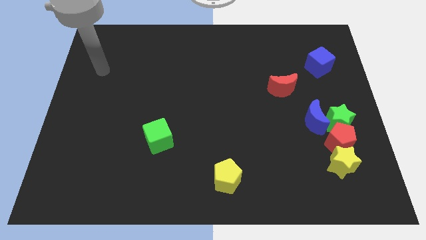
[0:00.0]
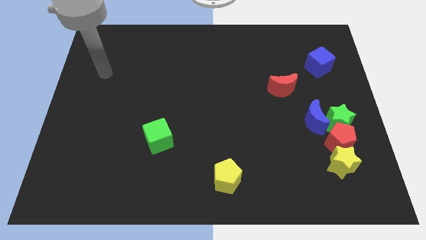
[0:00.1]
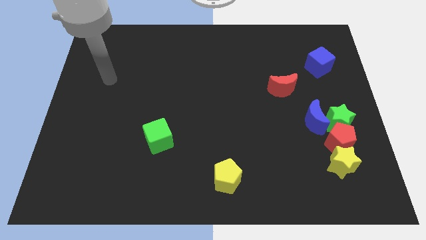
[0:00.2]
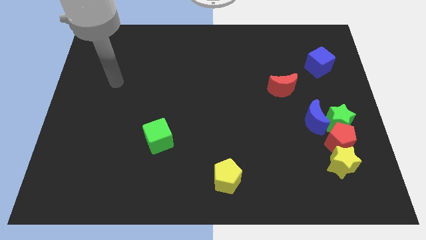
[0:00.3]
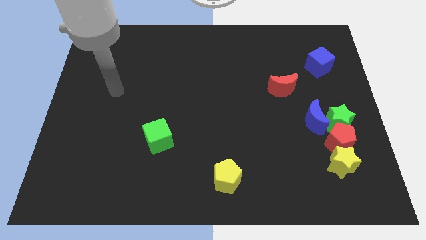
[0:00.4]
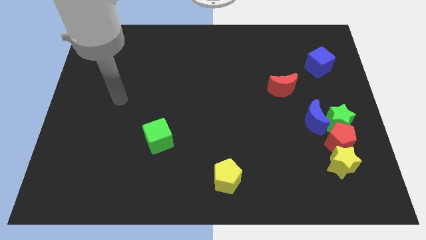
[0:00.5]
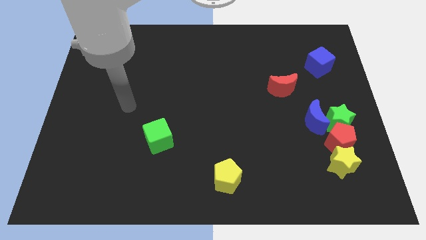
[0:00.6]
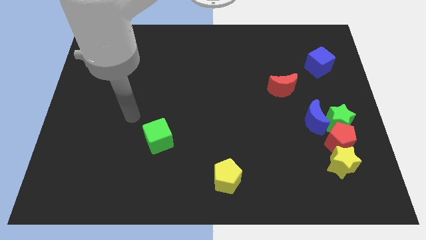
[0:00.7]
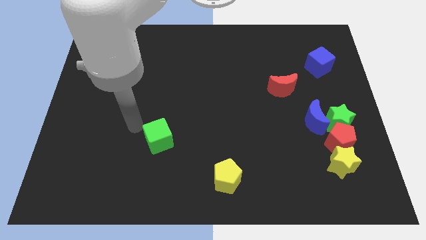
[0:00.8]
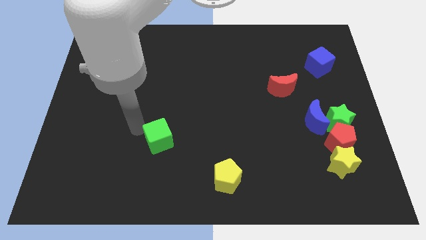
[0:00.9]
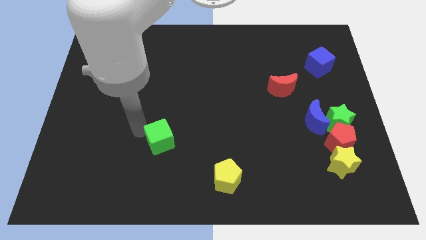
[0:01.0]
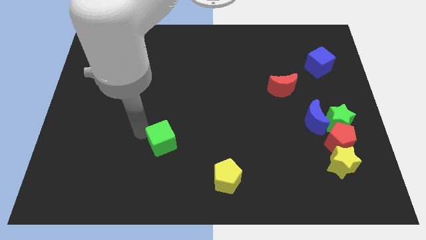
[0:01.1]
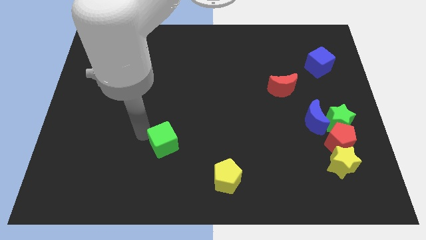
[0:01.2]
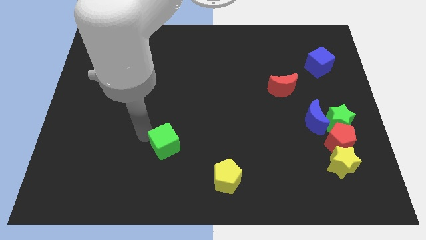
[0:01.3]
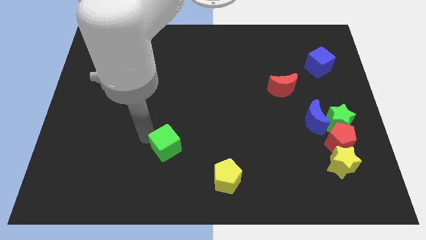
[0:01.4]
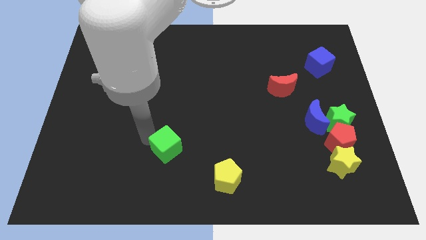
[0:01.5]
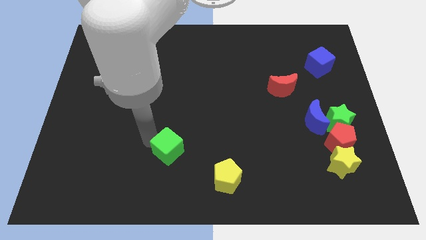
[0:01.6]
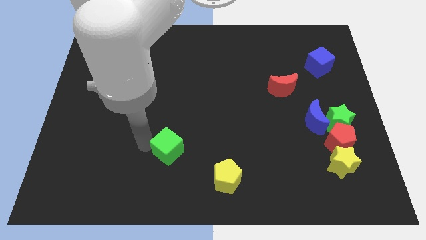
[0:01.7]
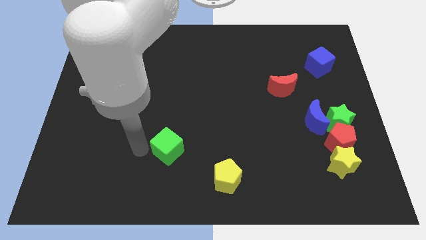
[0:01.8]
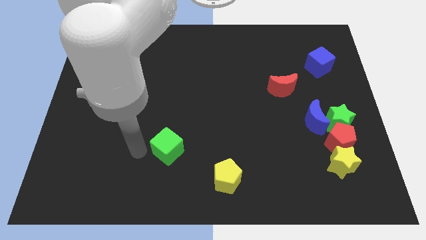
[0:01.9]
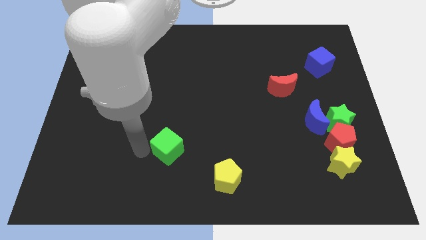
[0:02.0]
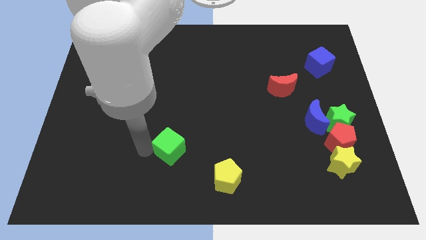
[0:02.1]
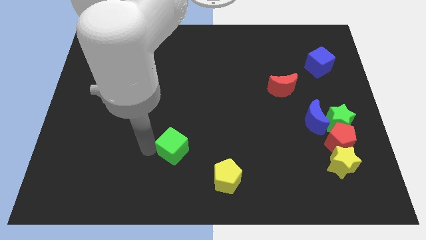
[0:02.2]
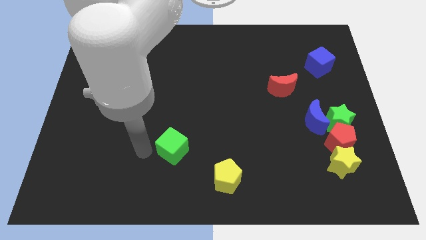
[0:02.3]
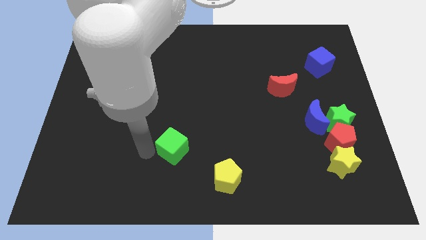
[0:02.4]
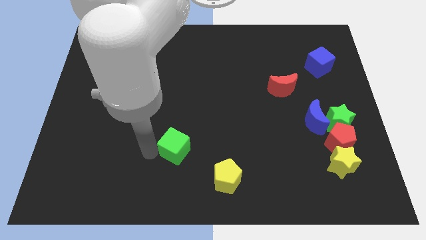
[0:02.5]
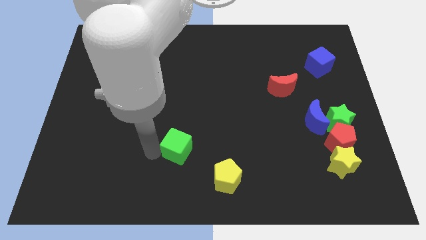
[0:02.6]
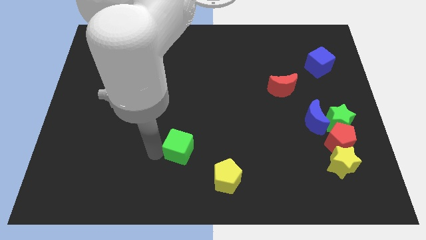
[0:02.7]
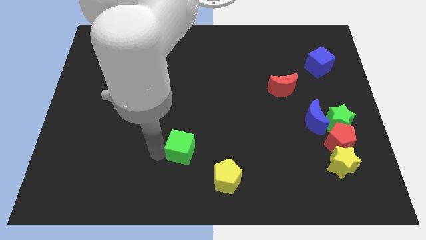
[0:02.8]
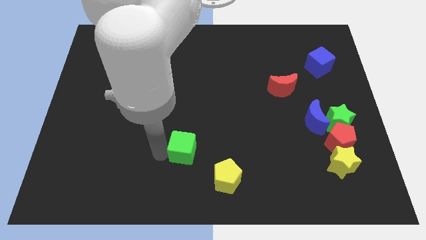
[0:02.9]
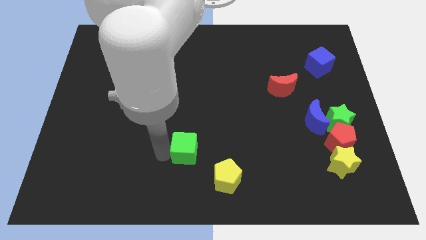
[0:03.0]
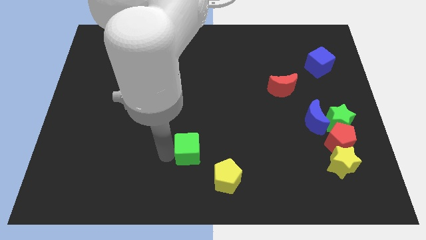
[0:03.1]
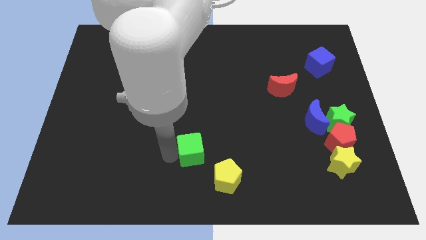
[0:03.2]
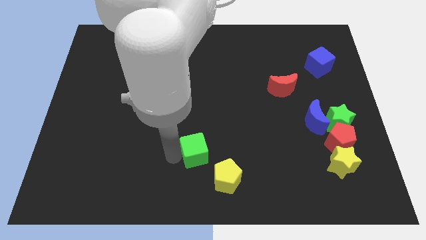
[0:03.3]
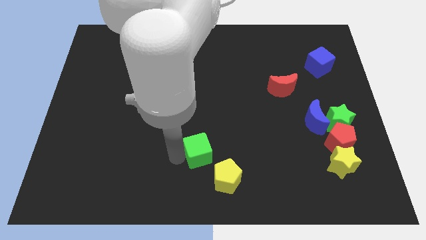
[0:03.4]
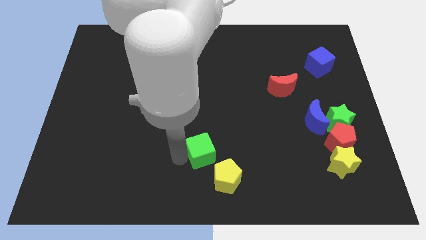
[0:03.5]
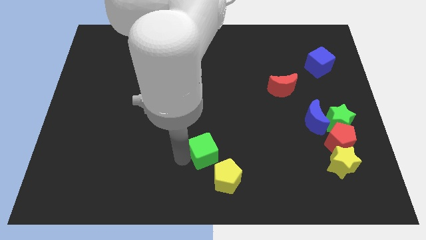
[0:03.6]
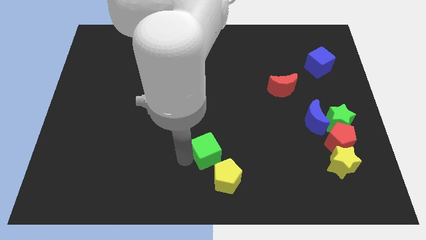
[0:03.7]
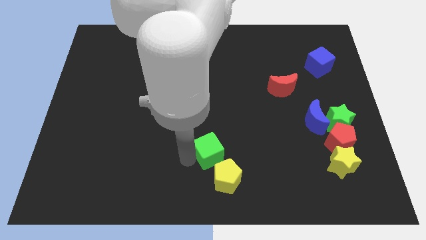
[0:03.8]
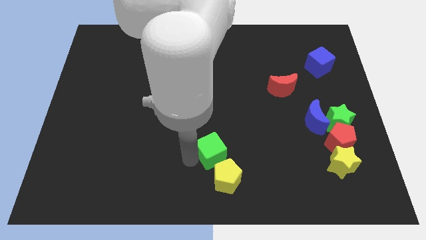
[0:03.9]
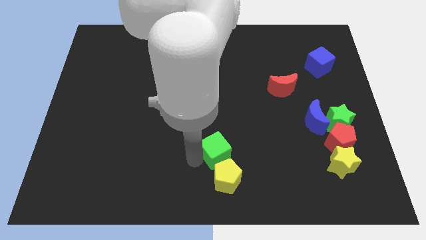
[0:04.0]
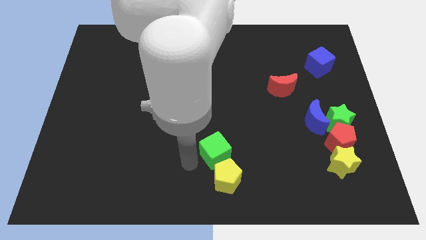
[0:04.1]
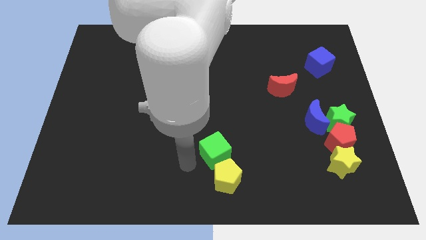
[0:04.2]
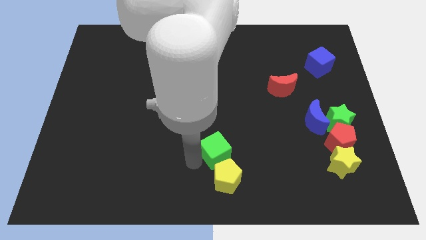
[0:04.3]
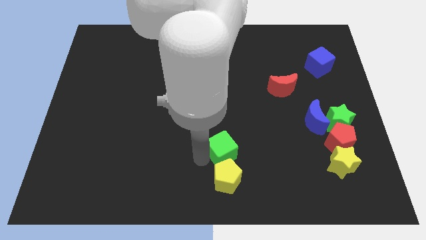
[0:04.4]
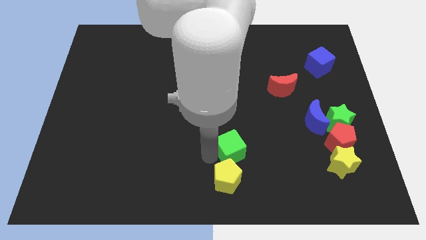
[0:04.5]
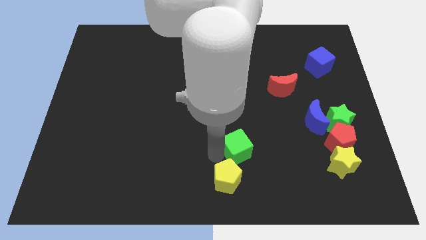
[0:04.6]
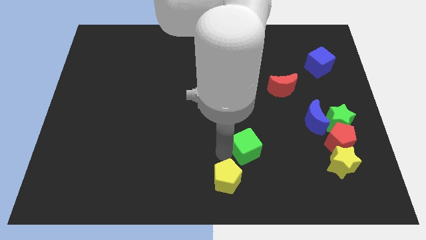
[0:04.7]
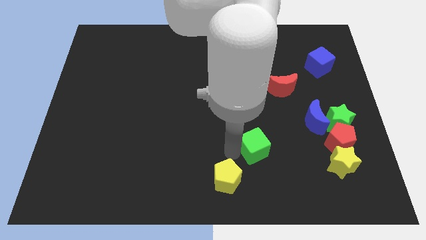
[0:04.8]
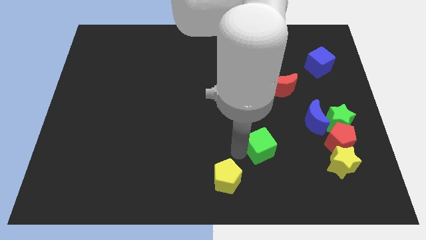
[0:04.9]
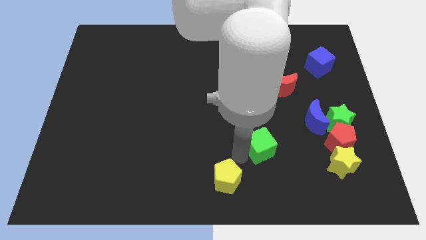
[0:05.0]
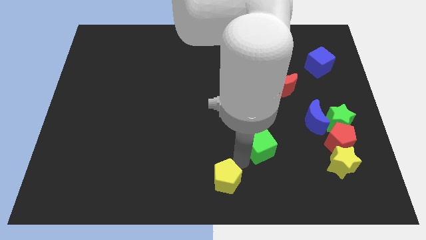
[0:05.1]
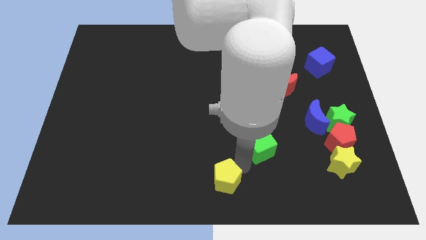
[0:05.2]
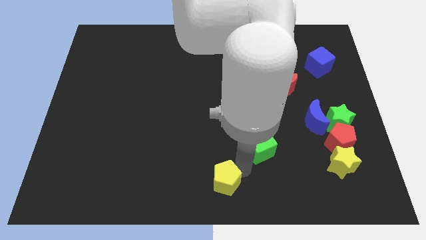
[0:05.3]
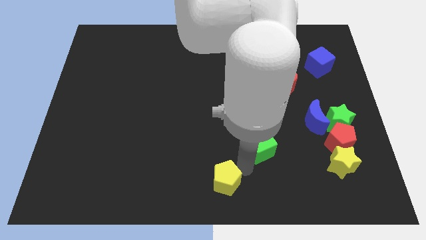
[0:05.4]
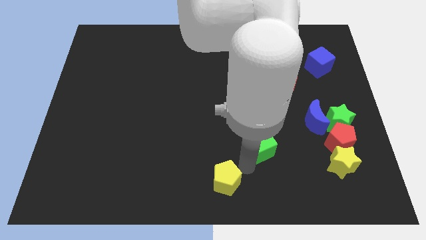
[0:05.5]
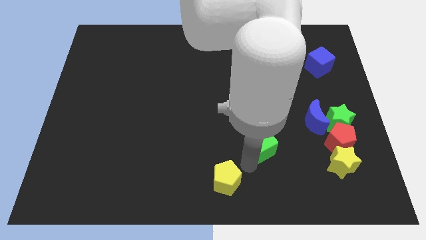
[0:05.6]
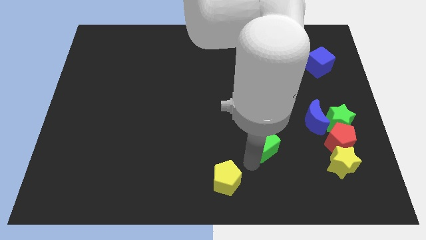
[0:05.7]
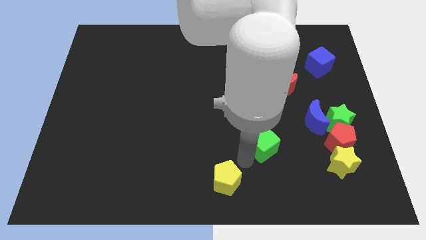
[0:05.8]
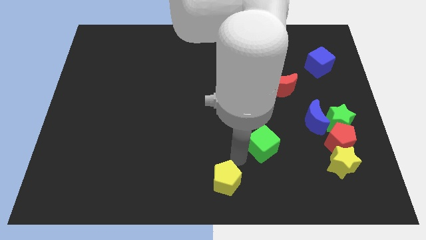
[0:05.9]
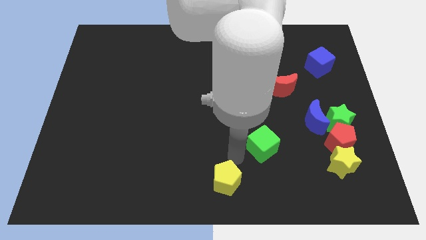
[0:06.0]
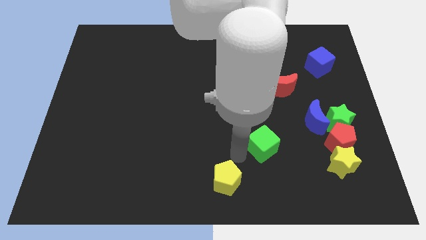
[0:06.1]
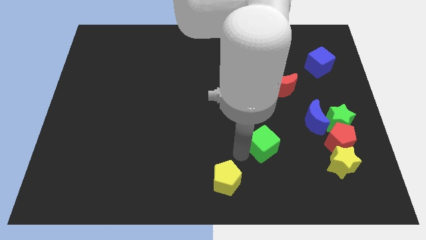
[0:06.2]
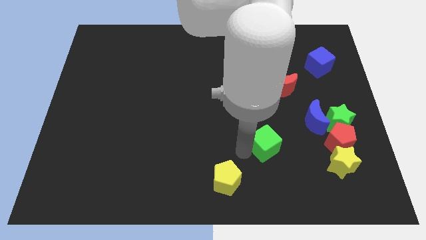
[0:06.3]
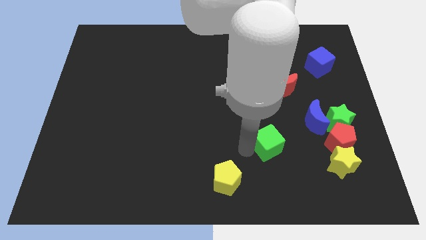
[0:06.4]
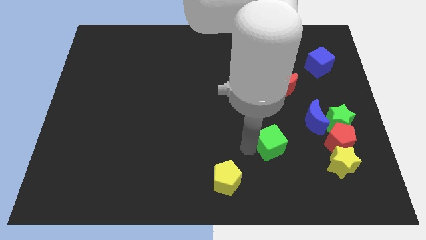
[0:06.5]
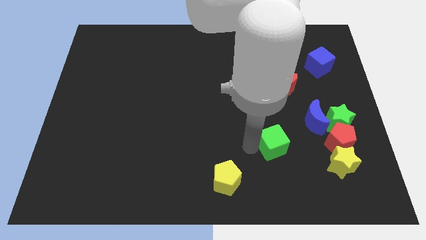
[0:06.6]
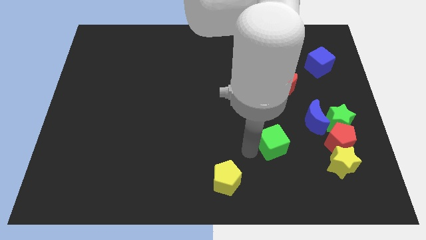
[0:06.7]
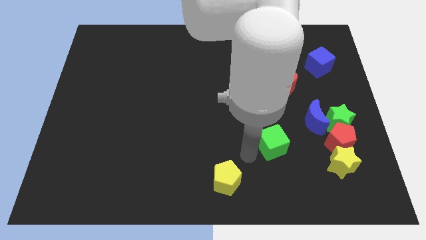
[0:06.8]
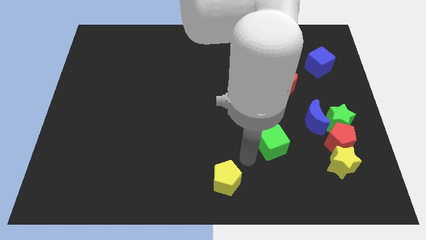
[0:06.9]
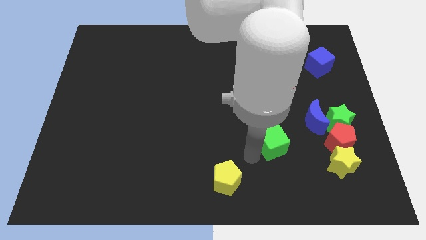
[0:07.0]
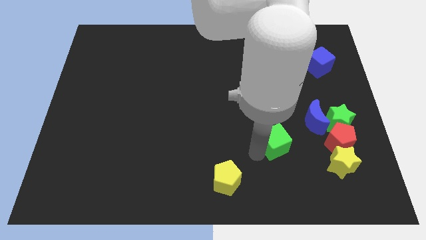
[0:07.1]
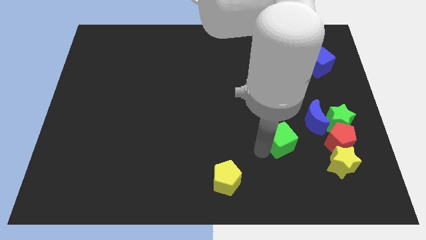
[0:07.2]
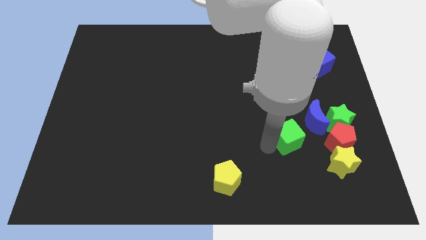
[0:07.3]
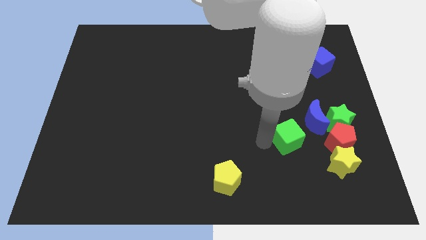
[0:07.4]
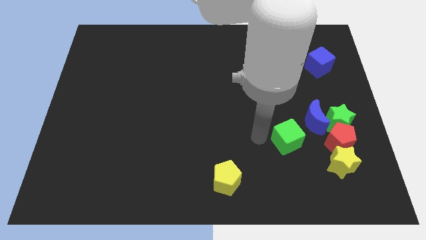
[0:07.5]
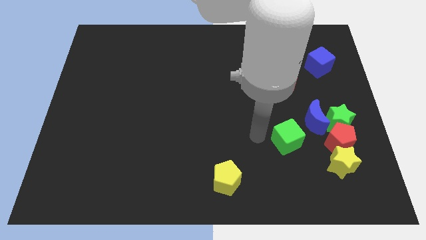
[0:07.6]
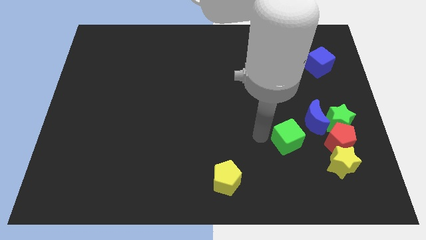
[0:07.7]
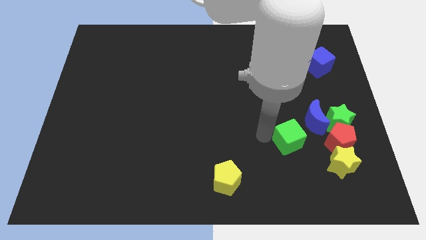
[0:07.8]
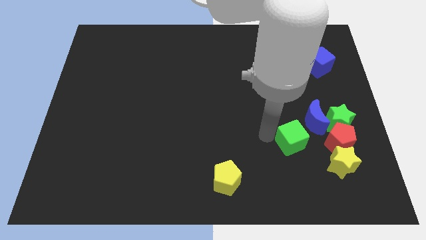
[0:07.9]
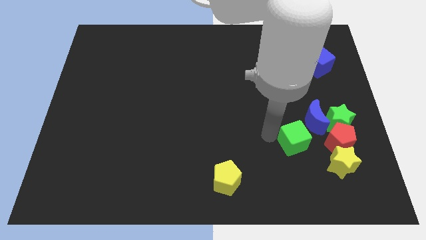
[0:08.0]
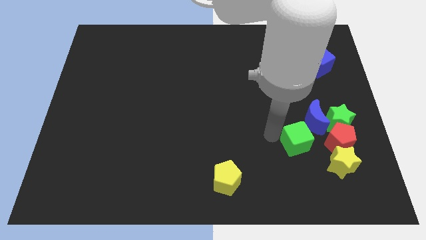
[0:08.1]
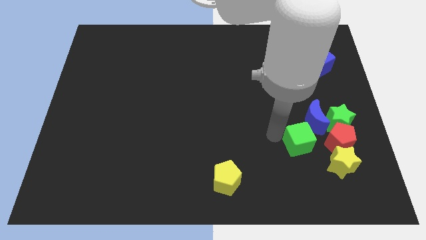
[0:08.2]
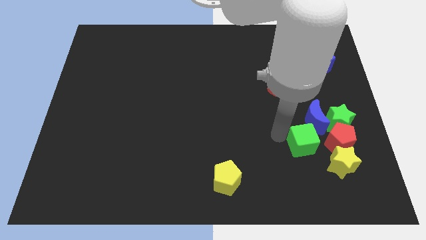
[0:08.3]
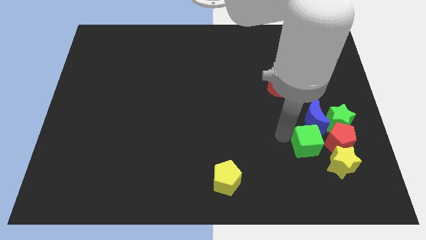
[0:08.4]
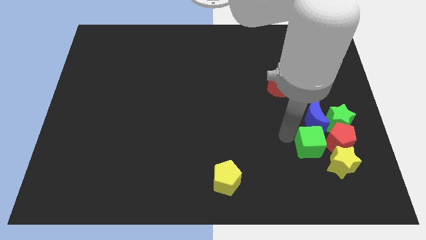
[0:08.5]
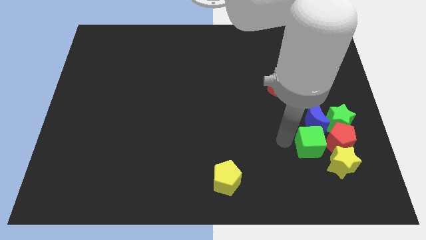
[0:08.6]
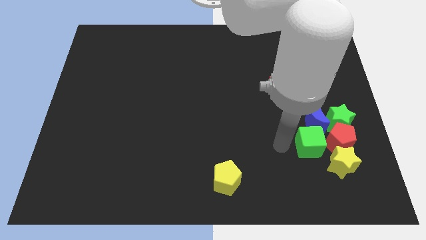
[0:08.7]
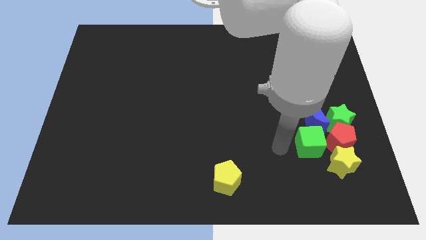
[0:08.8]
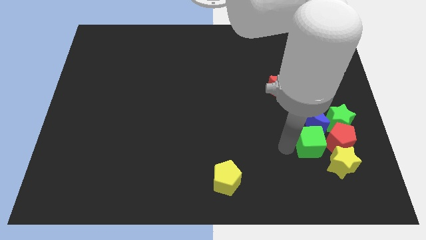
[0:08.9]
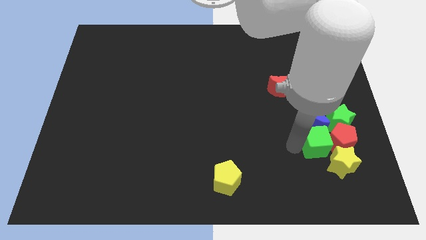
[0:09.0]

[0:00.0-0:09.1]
put the green cube next to the red pentagon
